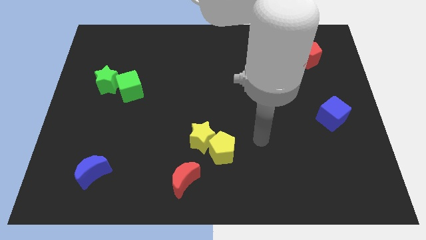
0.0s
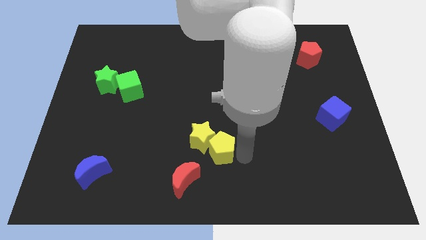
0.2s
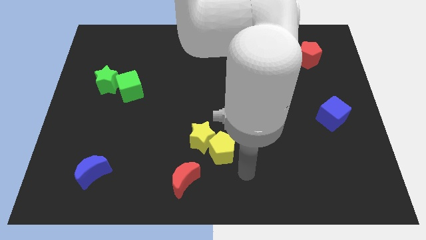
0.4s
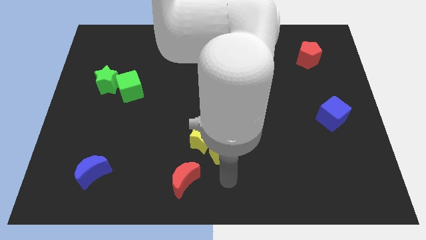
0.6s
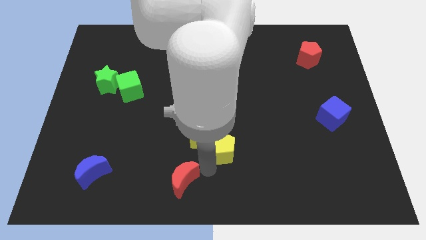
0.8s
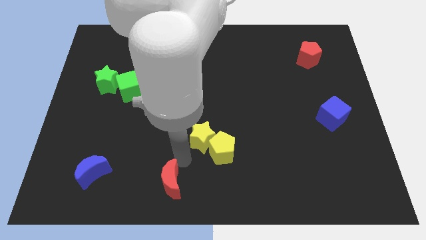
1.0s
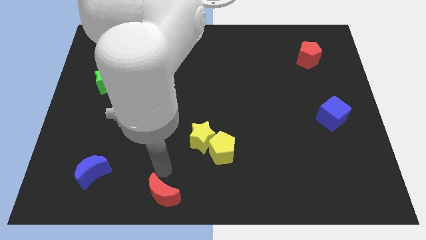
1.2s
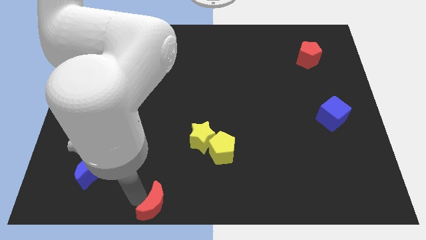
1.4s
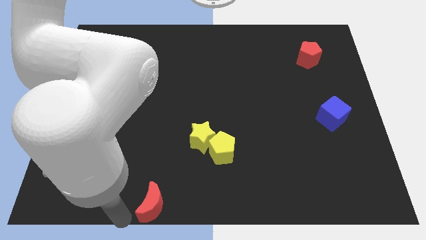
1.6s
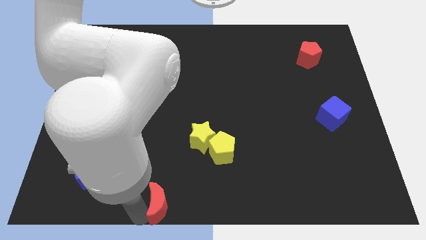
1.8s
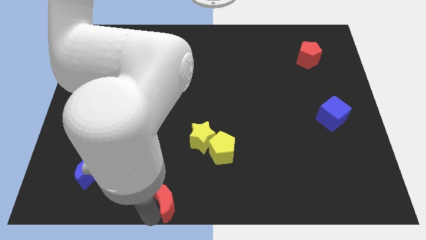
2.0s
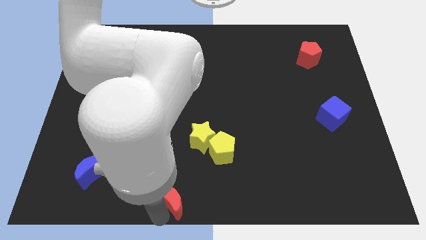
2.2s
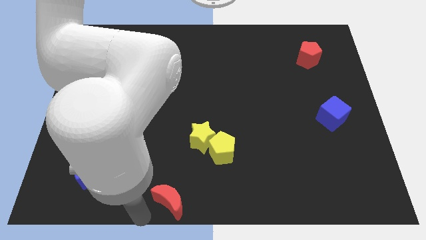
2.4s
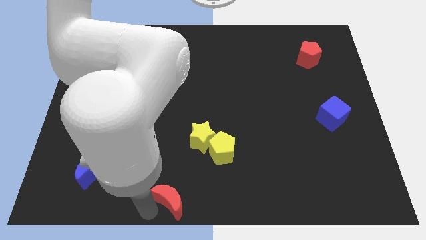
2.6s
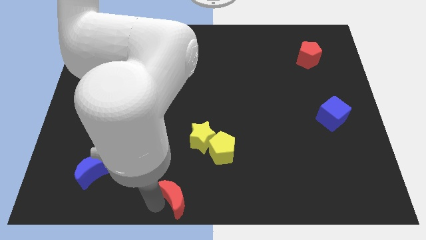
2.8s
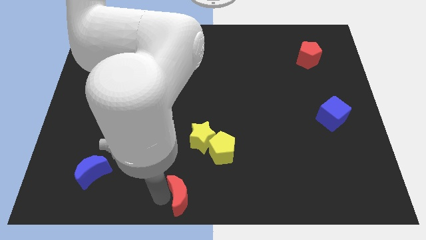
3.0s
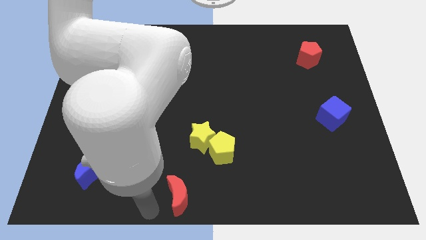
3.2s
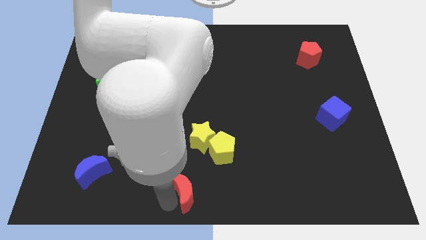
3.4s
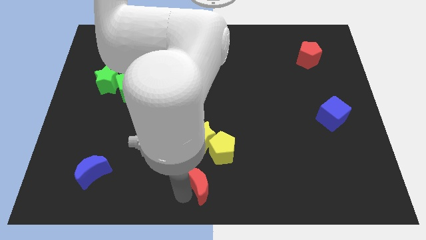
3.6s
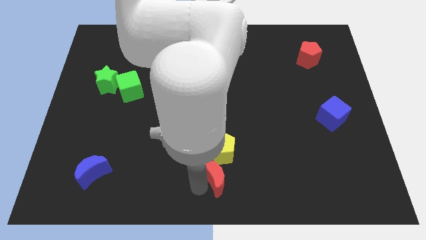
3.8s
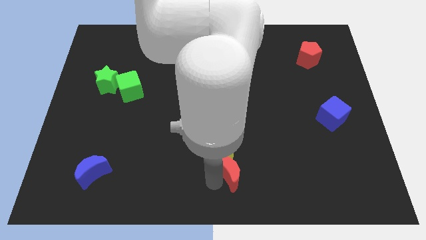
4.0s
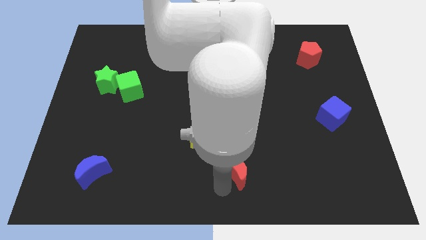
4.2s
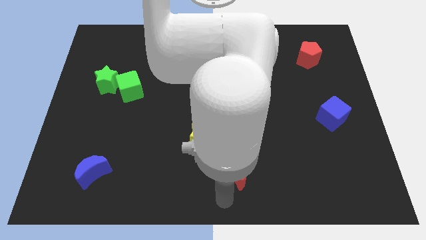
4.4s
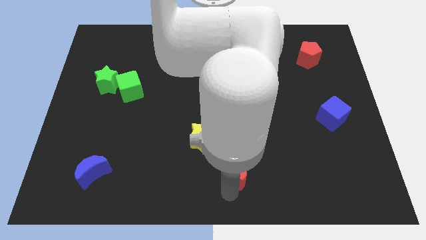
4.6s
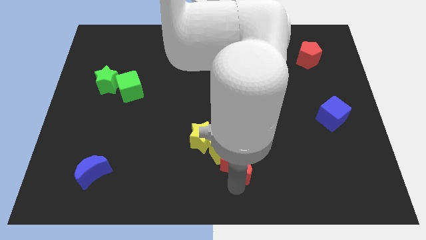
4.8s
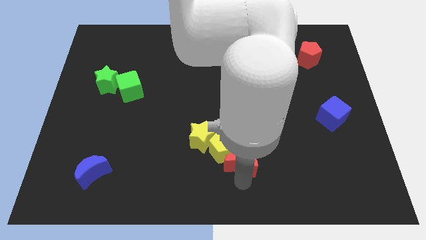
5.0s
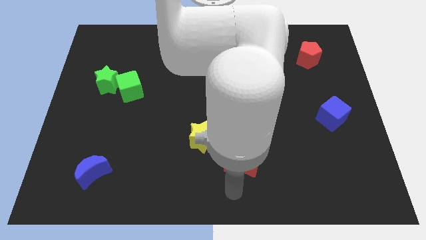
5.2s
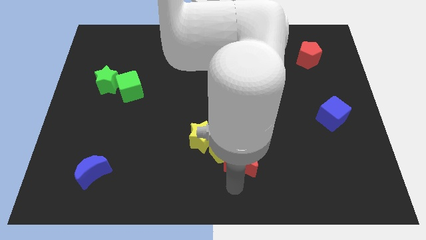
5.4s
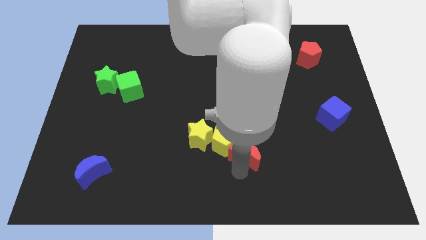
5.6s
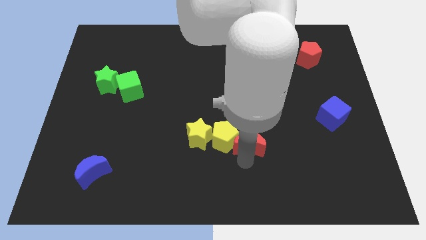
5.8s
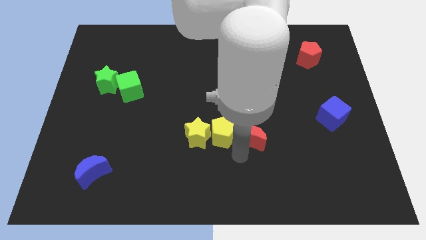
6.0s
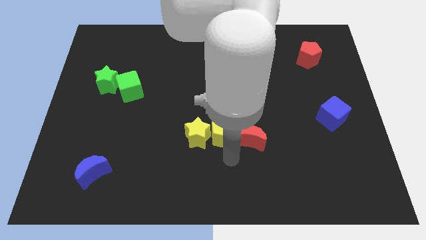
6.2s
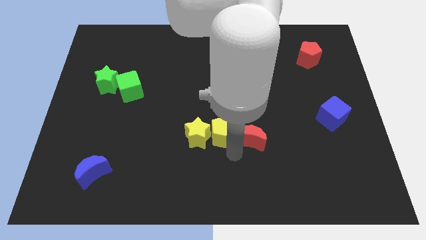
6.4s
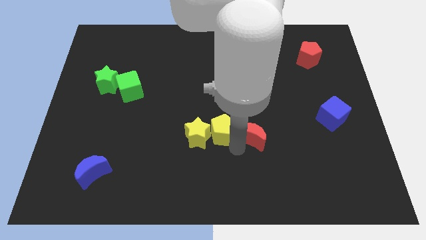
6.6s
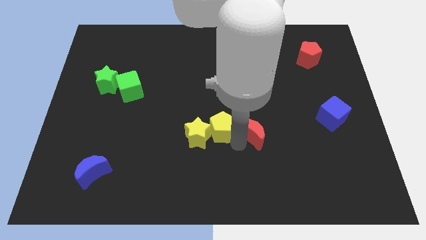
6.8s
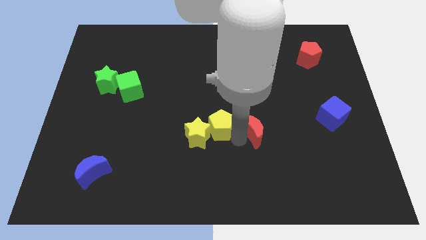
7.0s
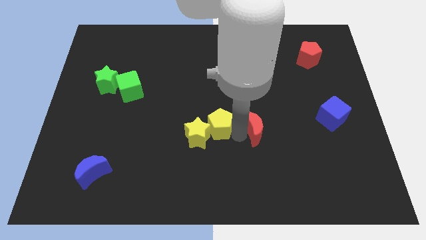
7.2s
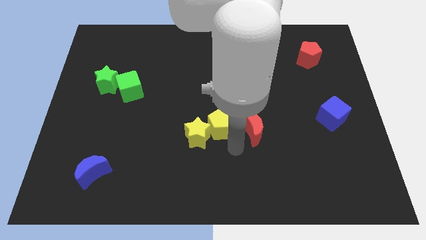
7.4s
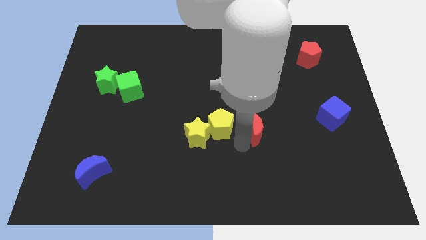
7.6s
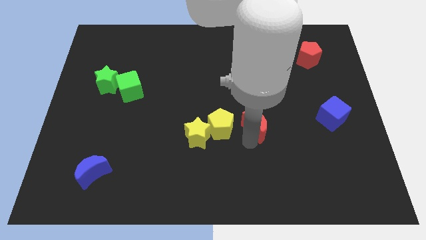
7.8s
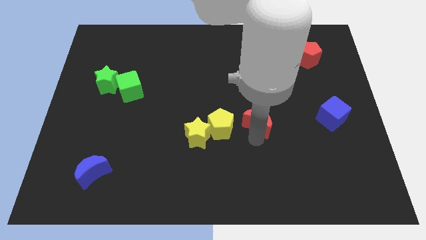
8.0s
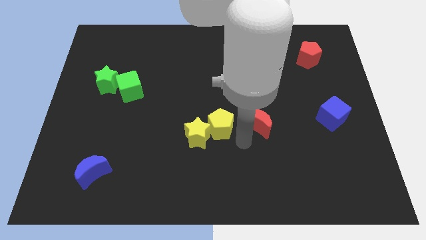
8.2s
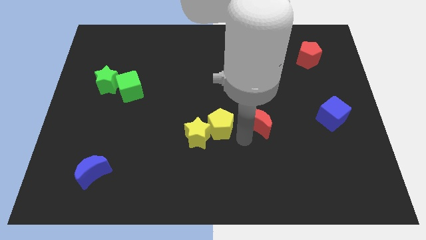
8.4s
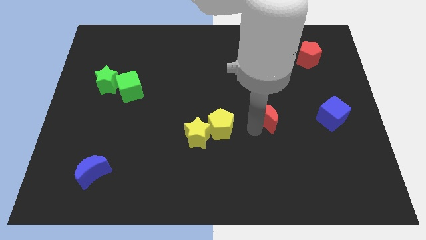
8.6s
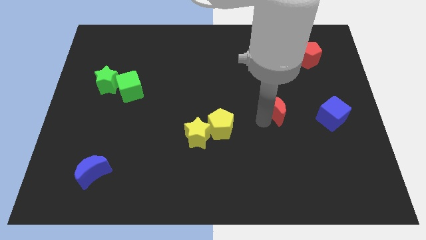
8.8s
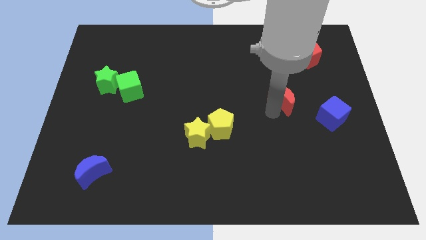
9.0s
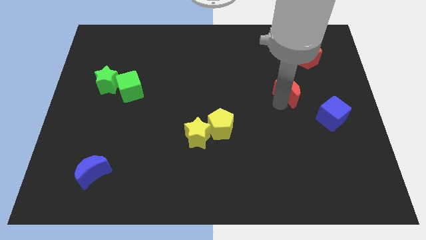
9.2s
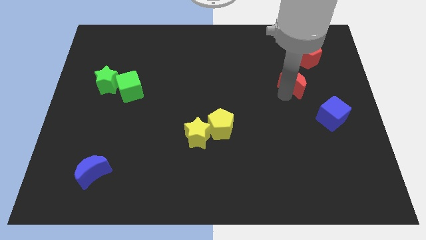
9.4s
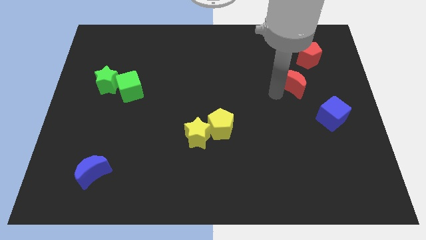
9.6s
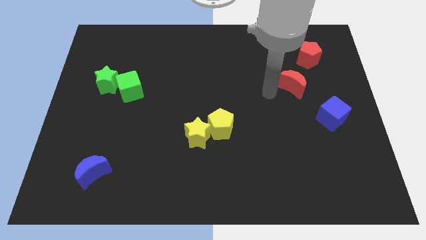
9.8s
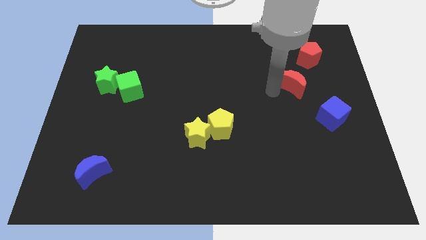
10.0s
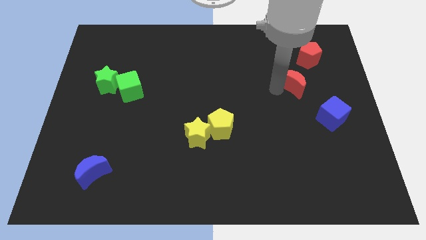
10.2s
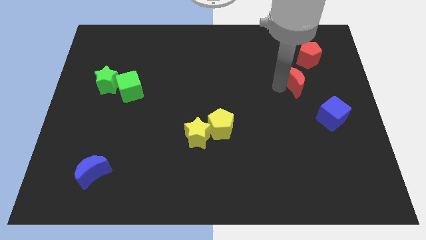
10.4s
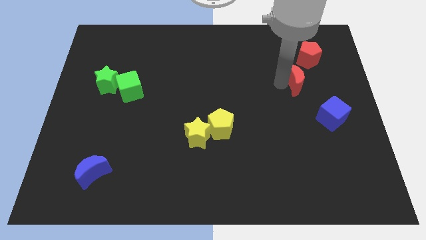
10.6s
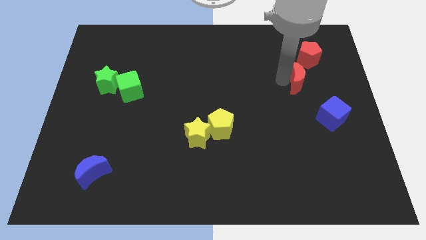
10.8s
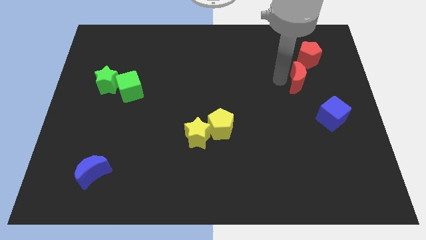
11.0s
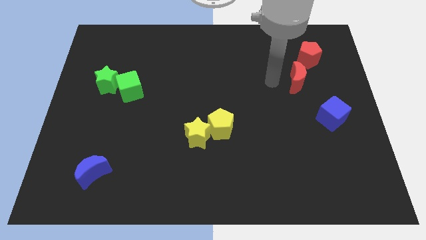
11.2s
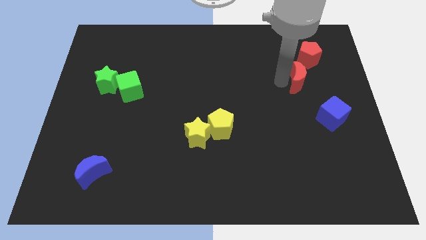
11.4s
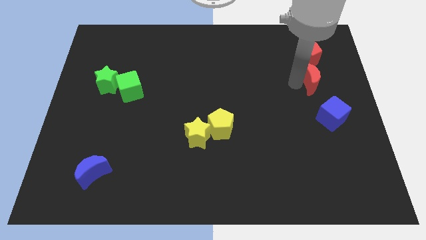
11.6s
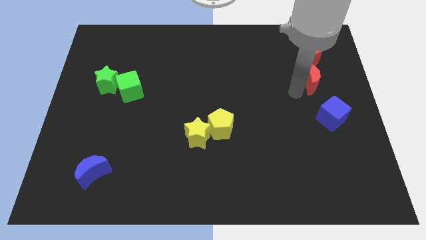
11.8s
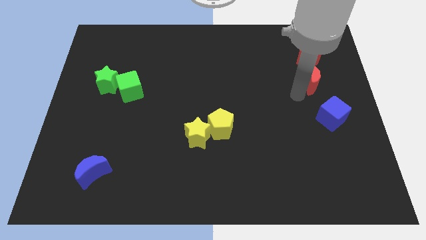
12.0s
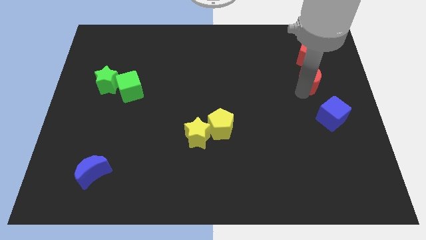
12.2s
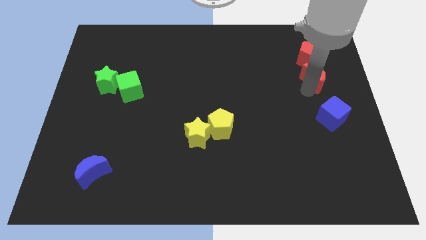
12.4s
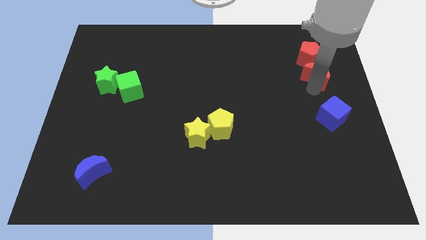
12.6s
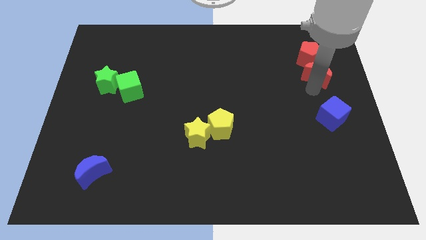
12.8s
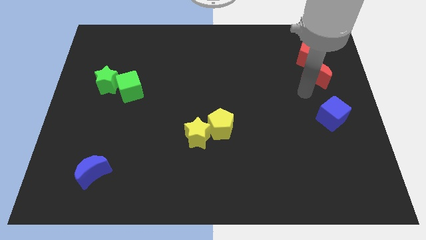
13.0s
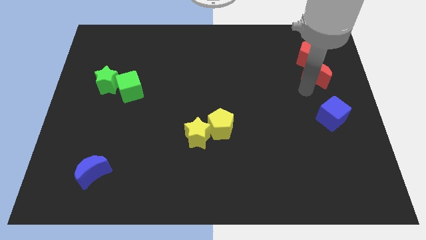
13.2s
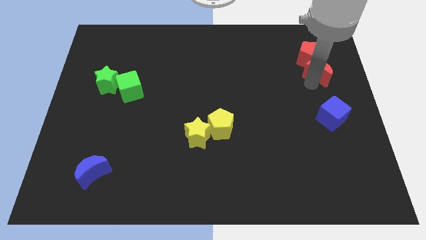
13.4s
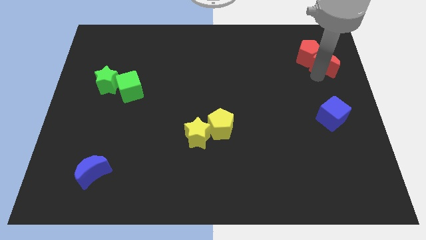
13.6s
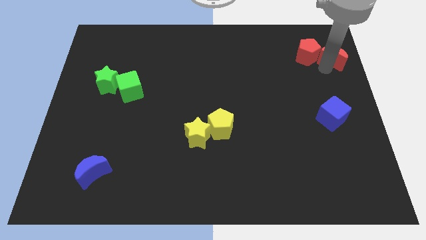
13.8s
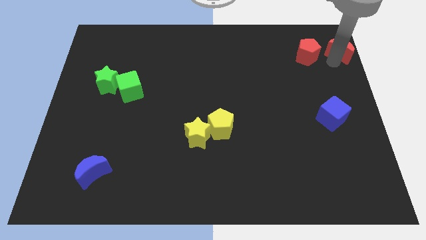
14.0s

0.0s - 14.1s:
move the red moon to the top right of the board
